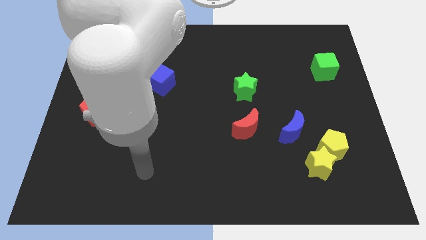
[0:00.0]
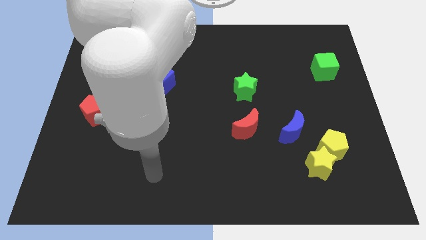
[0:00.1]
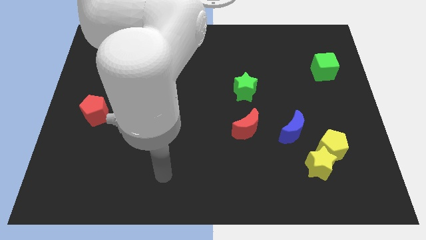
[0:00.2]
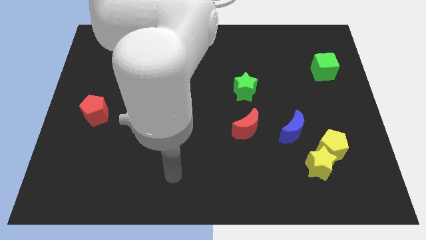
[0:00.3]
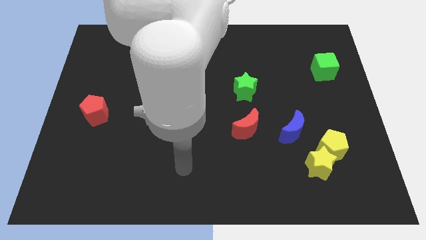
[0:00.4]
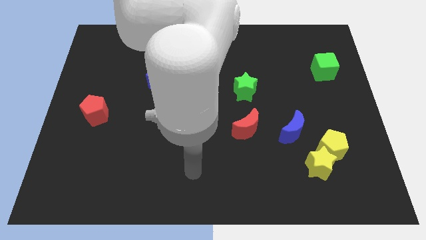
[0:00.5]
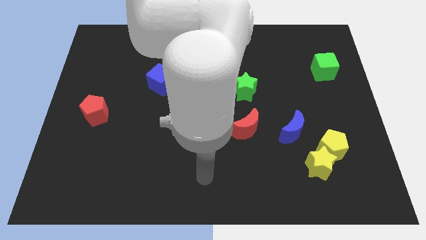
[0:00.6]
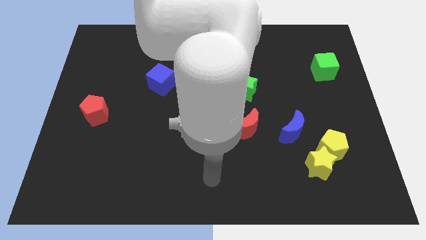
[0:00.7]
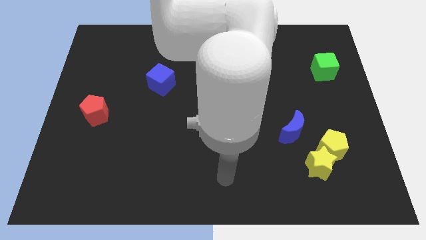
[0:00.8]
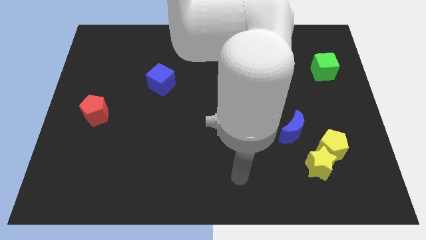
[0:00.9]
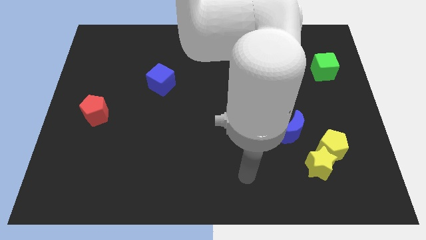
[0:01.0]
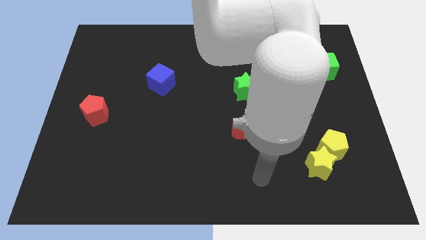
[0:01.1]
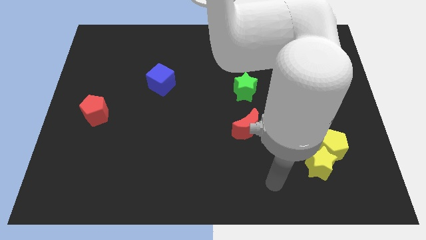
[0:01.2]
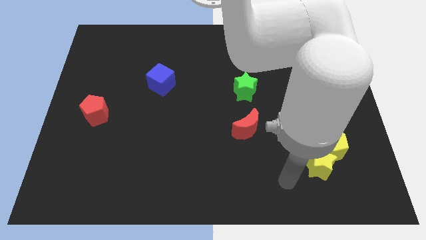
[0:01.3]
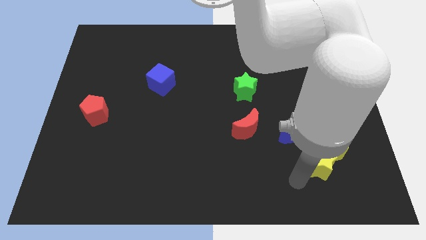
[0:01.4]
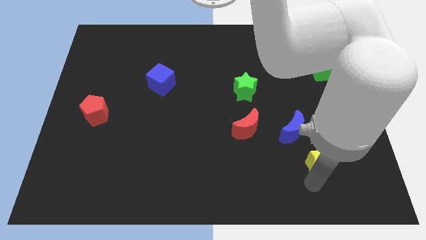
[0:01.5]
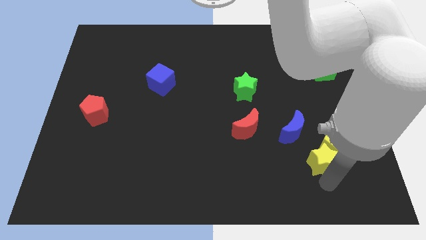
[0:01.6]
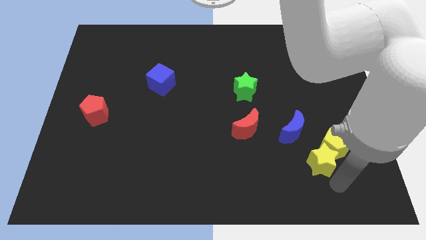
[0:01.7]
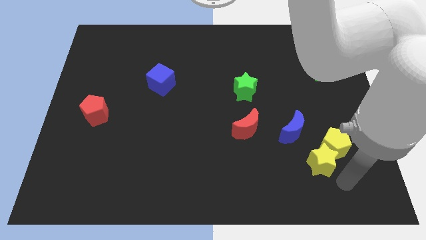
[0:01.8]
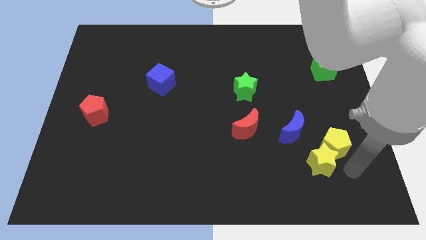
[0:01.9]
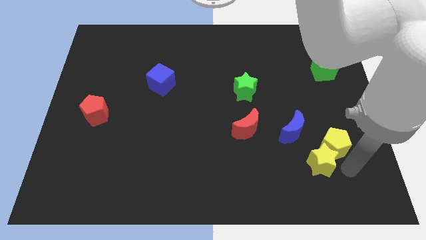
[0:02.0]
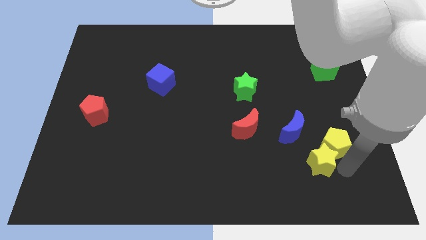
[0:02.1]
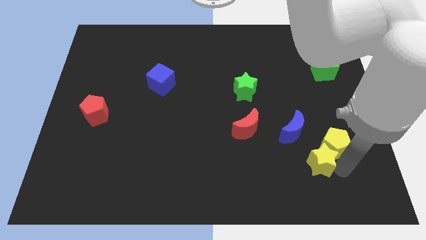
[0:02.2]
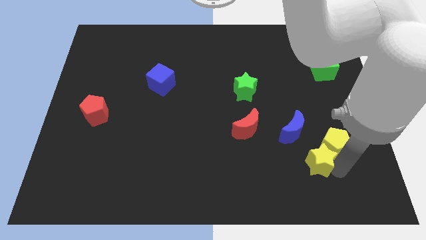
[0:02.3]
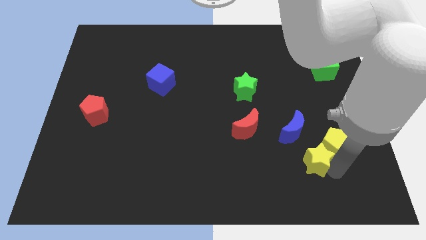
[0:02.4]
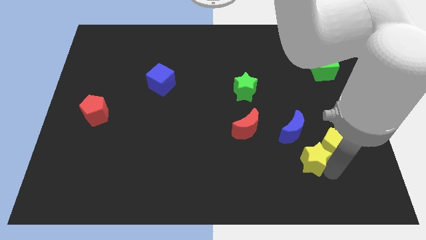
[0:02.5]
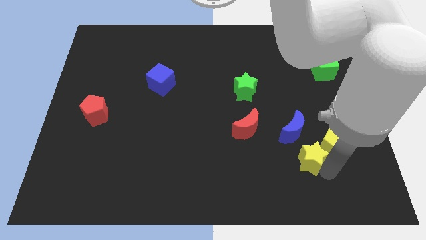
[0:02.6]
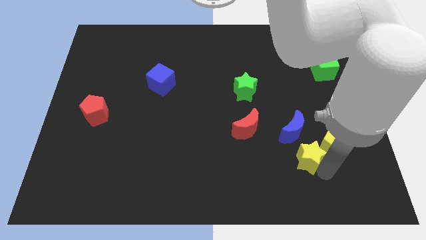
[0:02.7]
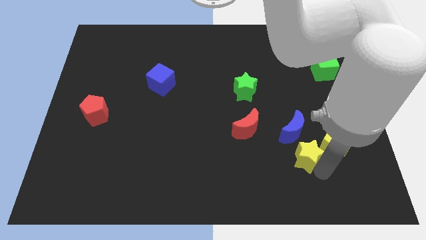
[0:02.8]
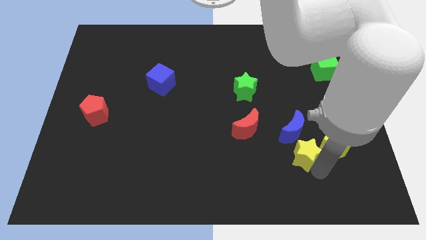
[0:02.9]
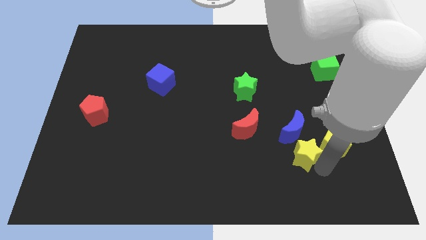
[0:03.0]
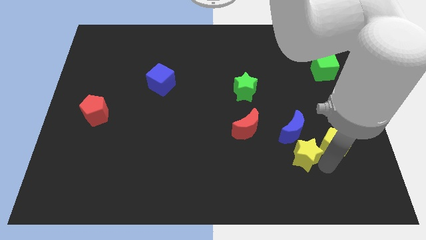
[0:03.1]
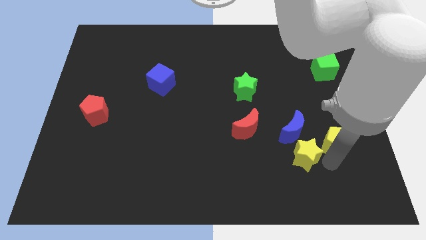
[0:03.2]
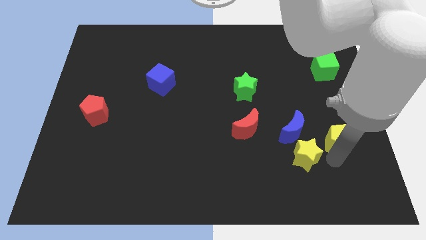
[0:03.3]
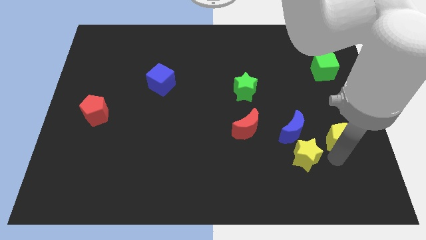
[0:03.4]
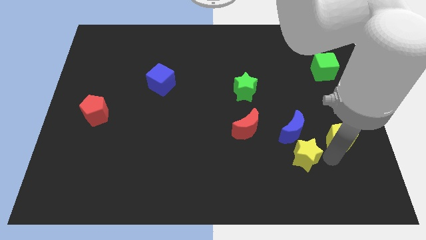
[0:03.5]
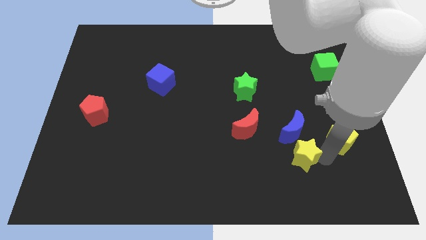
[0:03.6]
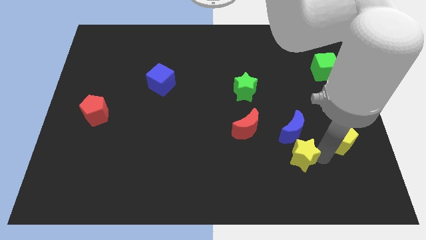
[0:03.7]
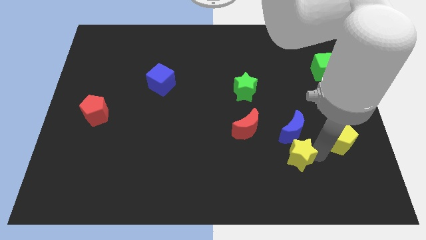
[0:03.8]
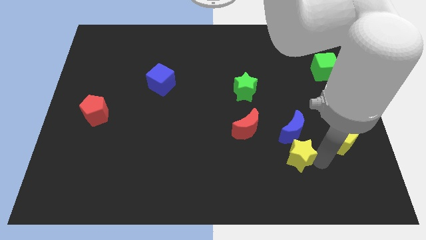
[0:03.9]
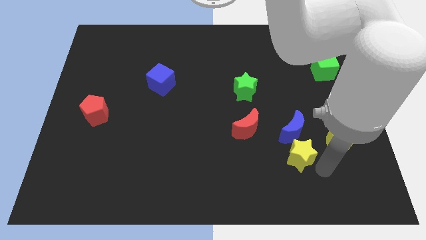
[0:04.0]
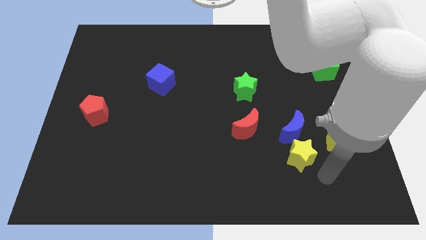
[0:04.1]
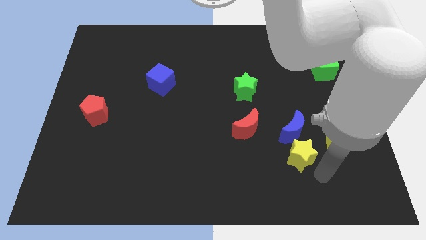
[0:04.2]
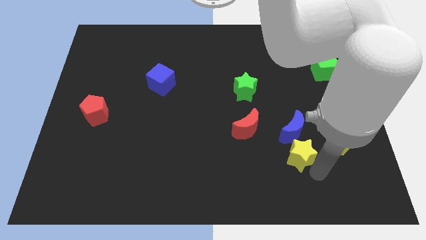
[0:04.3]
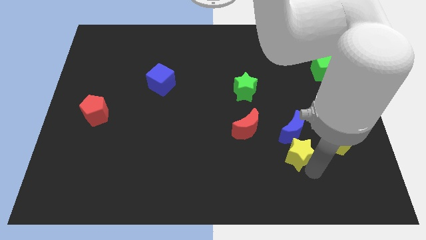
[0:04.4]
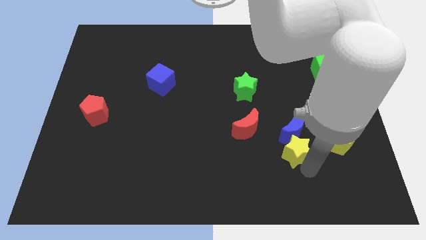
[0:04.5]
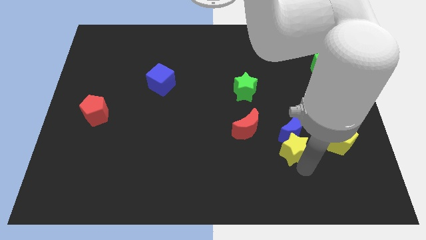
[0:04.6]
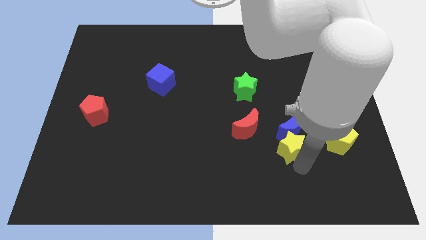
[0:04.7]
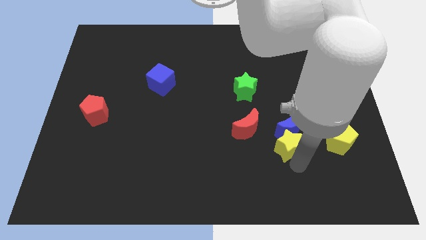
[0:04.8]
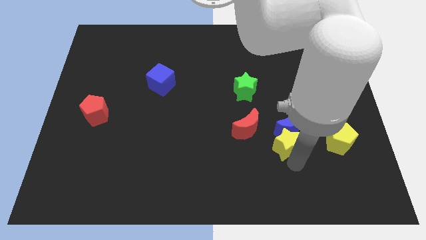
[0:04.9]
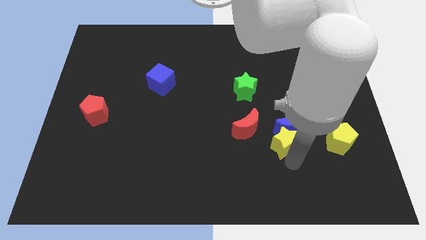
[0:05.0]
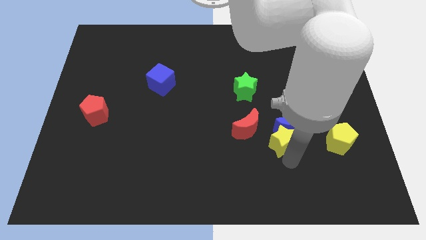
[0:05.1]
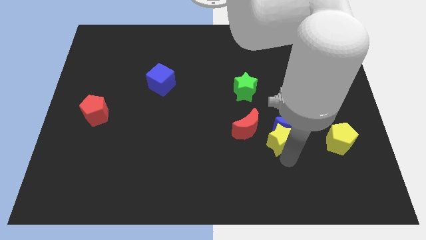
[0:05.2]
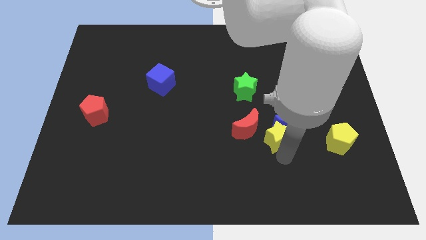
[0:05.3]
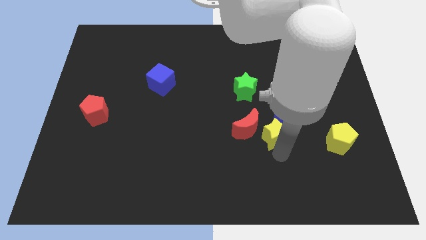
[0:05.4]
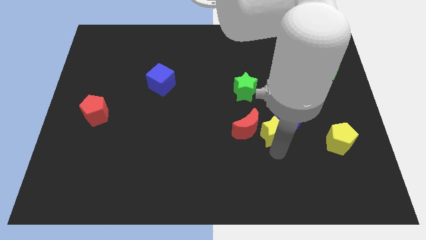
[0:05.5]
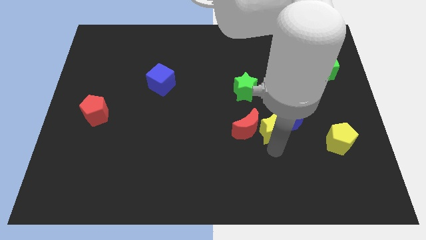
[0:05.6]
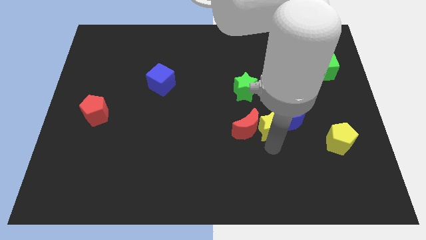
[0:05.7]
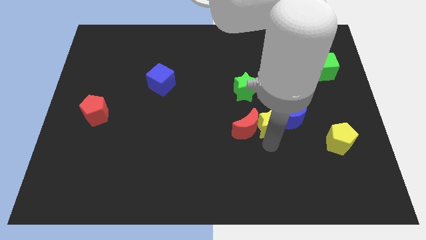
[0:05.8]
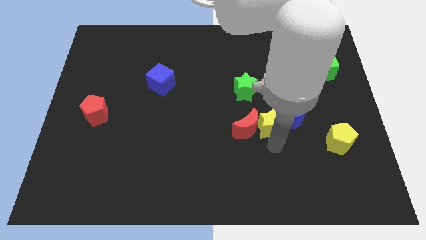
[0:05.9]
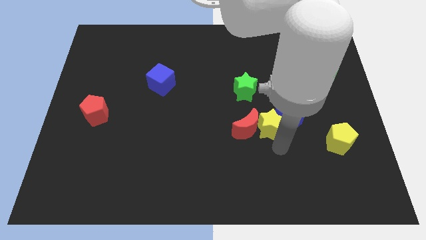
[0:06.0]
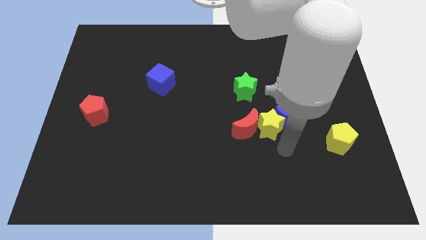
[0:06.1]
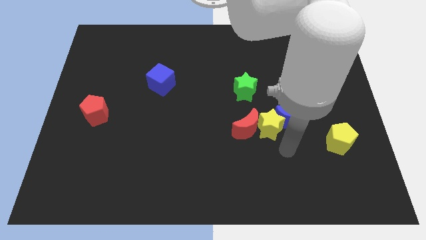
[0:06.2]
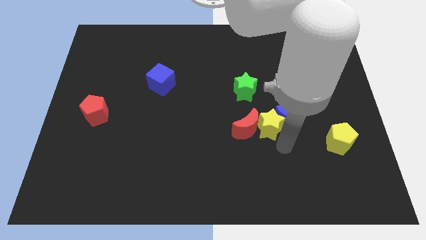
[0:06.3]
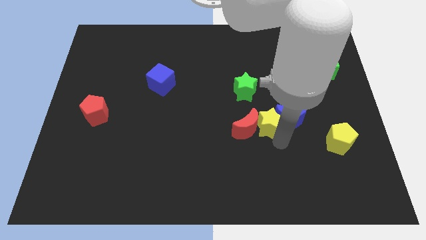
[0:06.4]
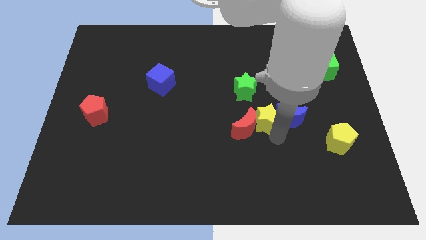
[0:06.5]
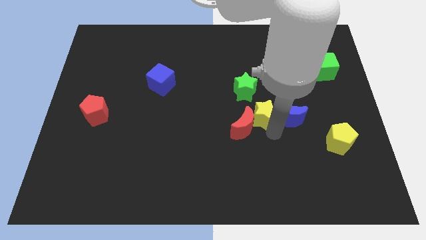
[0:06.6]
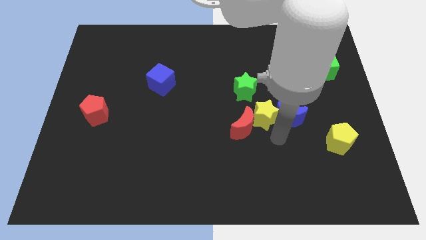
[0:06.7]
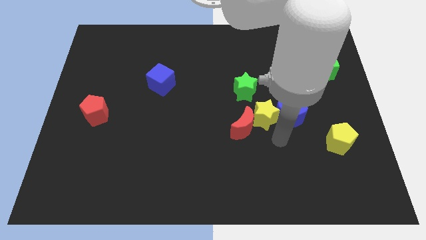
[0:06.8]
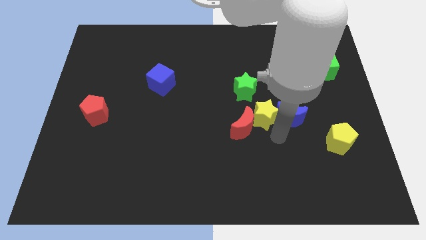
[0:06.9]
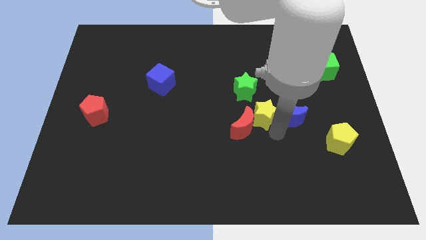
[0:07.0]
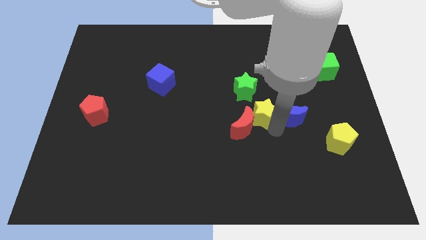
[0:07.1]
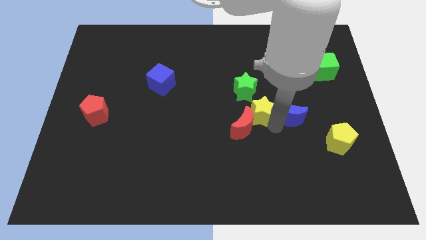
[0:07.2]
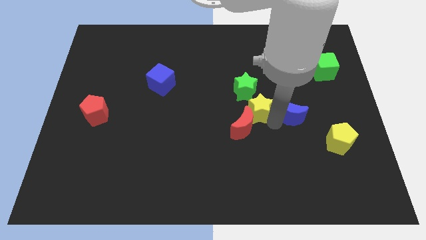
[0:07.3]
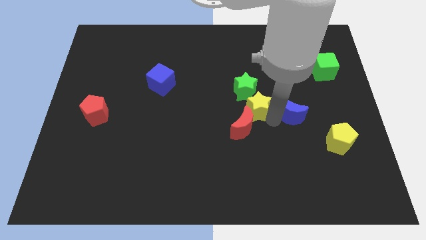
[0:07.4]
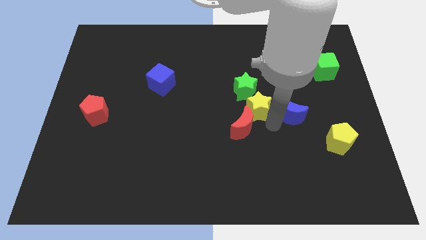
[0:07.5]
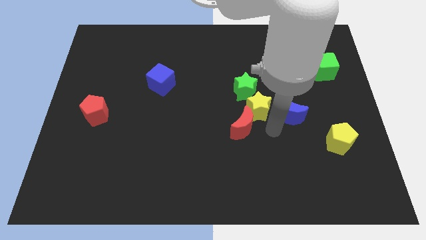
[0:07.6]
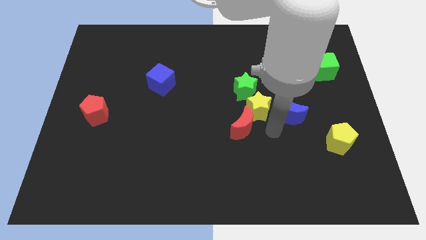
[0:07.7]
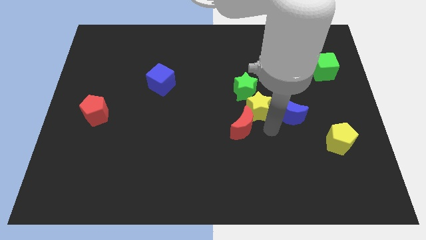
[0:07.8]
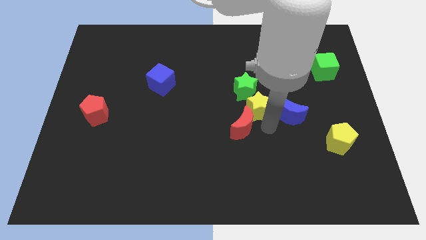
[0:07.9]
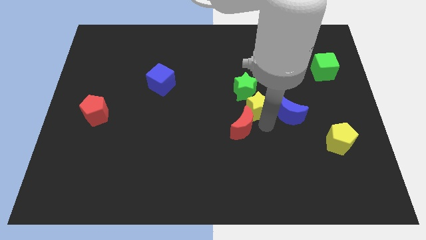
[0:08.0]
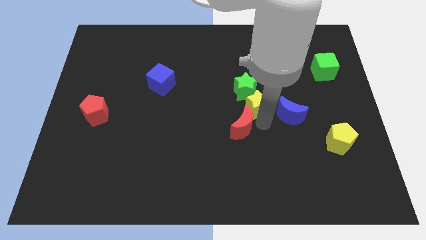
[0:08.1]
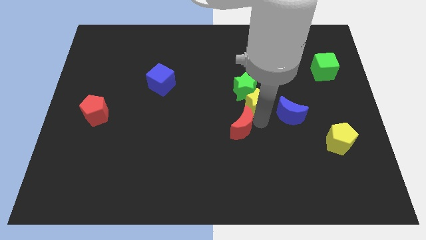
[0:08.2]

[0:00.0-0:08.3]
move the yellow star towards the green star
